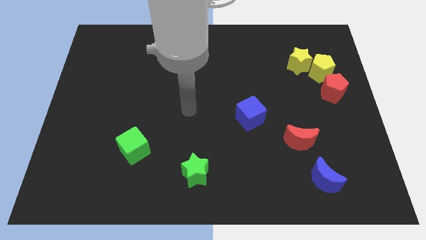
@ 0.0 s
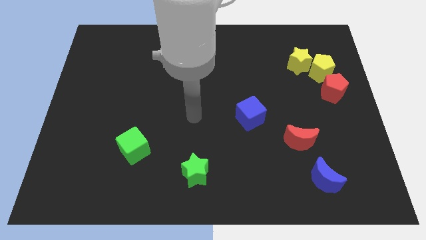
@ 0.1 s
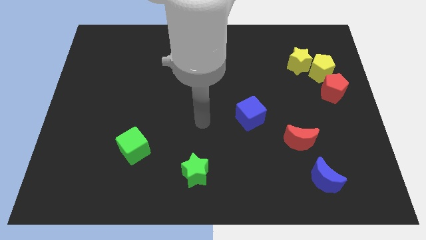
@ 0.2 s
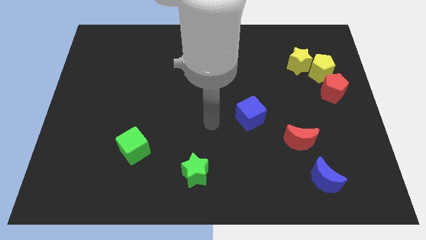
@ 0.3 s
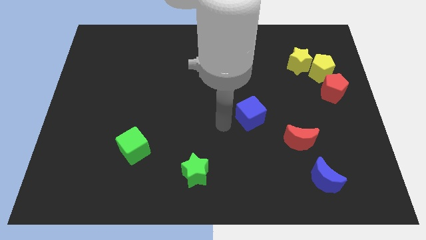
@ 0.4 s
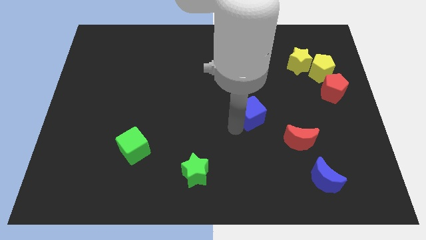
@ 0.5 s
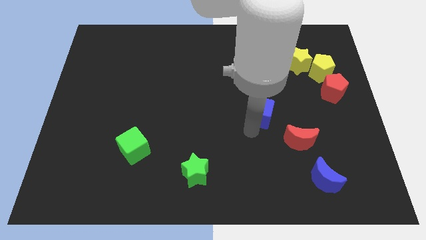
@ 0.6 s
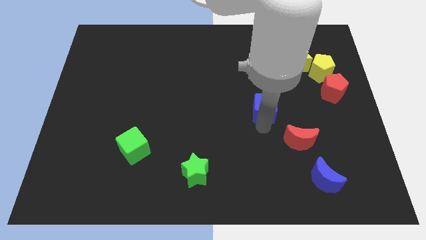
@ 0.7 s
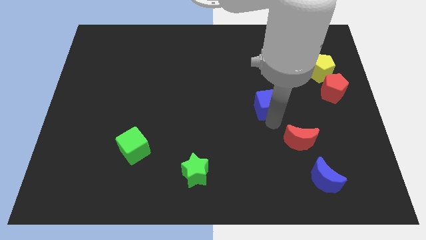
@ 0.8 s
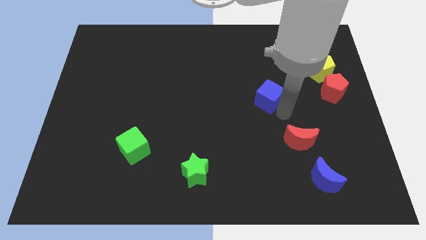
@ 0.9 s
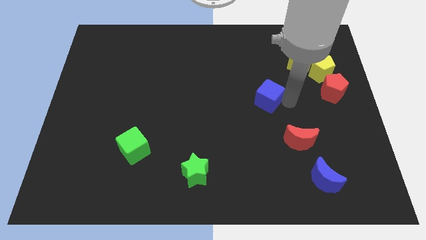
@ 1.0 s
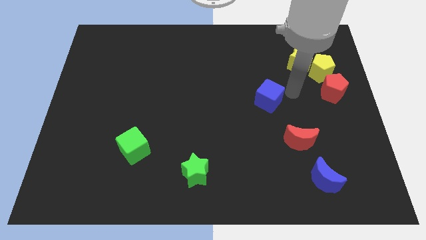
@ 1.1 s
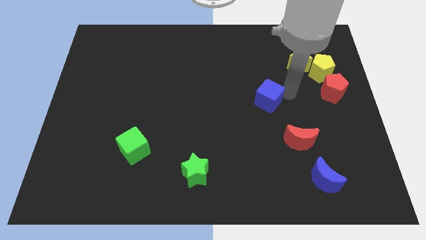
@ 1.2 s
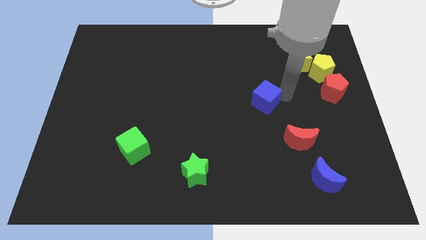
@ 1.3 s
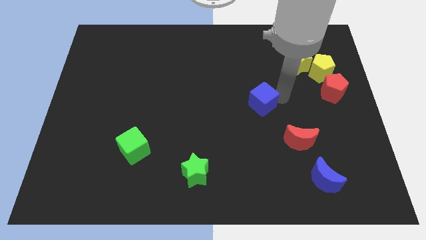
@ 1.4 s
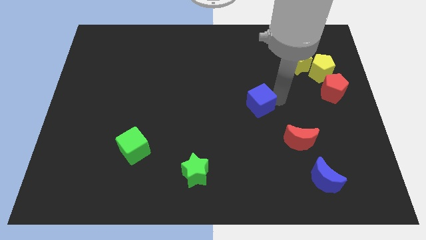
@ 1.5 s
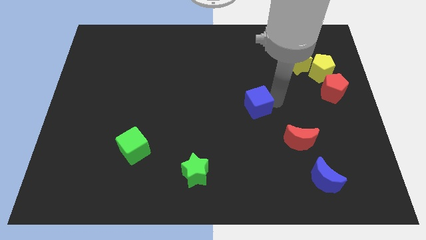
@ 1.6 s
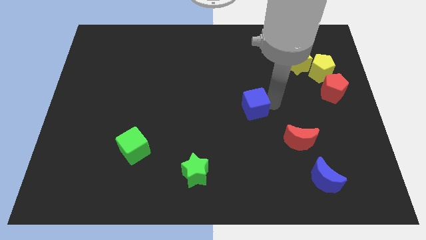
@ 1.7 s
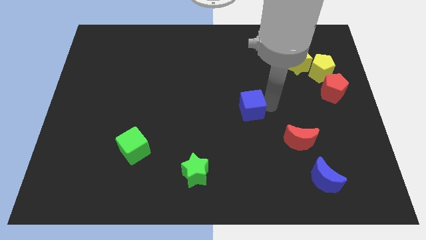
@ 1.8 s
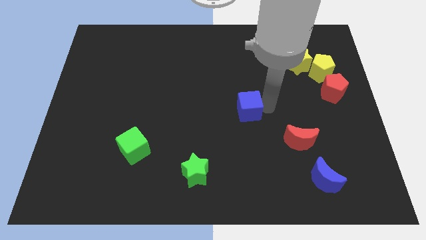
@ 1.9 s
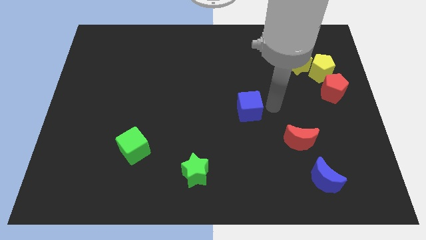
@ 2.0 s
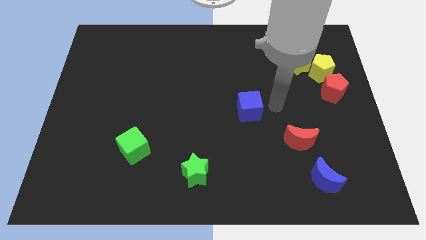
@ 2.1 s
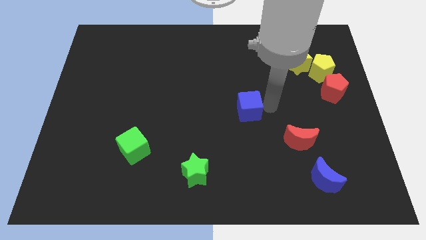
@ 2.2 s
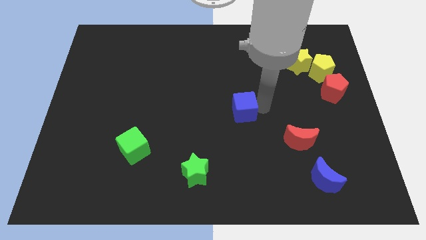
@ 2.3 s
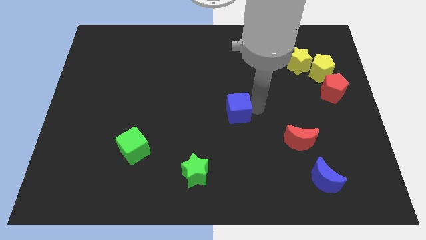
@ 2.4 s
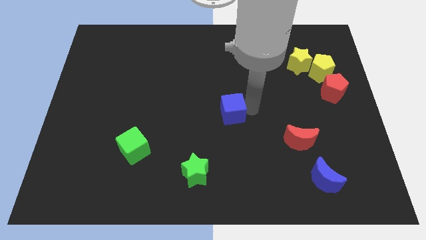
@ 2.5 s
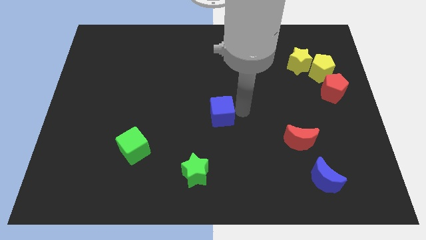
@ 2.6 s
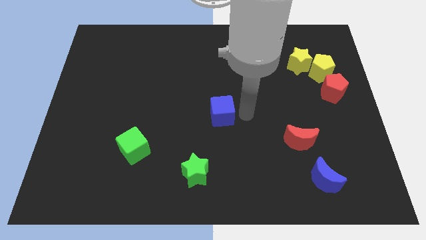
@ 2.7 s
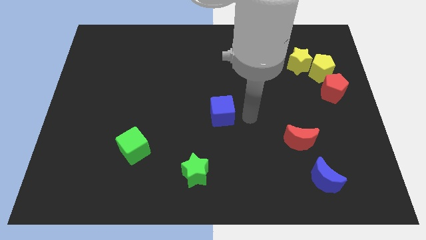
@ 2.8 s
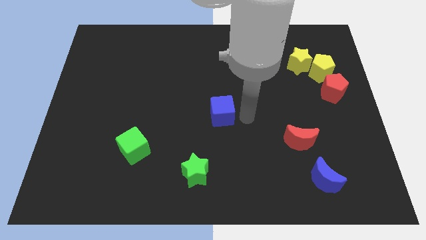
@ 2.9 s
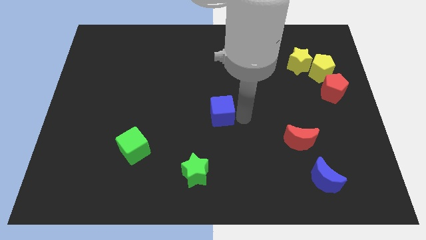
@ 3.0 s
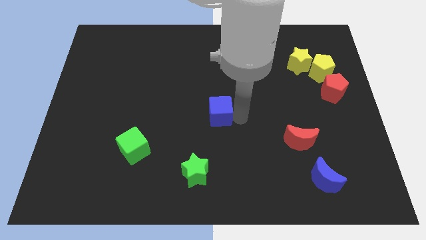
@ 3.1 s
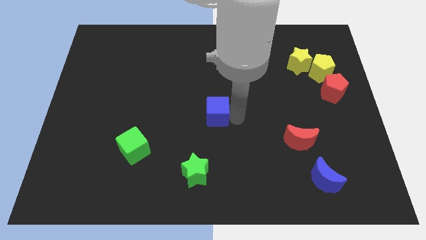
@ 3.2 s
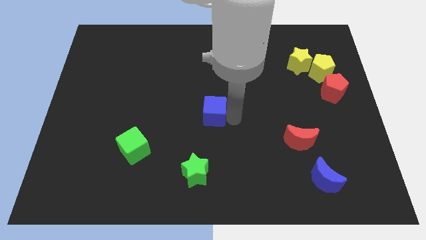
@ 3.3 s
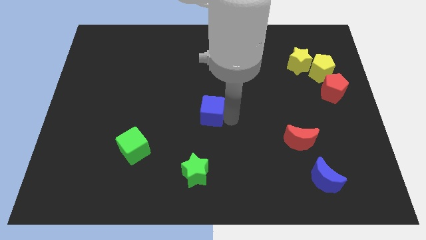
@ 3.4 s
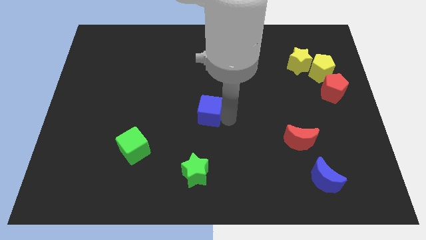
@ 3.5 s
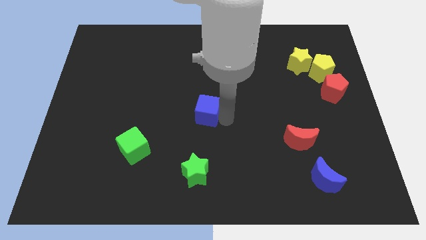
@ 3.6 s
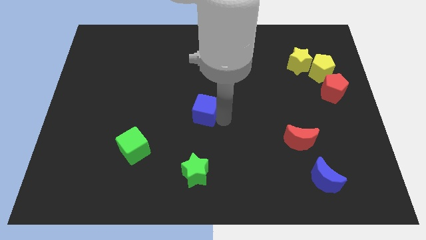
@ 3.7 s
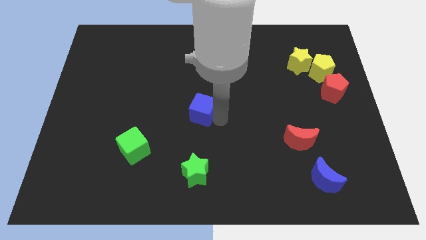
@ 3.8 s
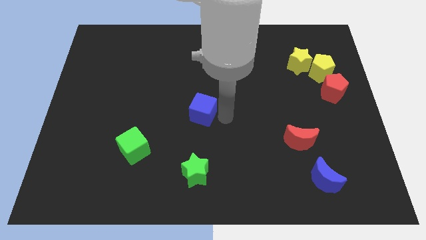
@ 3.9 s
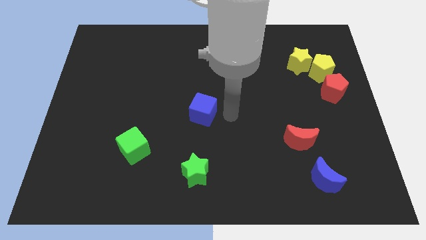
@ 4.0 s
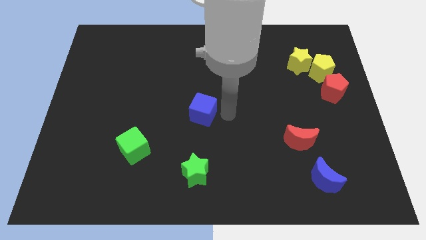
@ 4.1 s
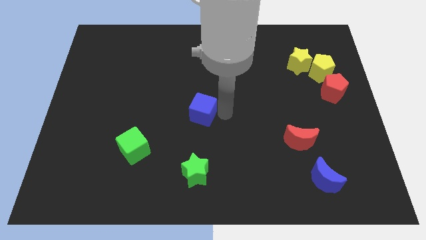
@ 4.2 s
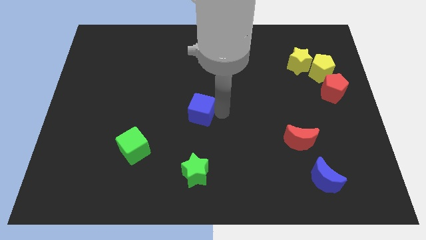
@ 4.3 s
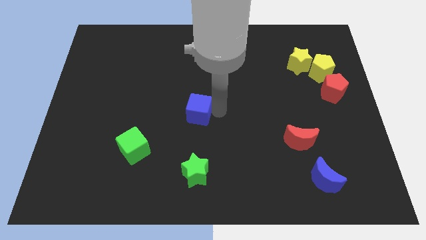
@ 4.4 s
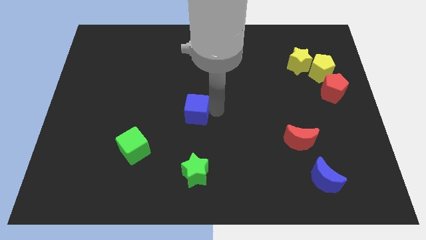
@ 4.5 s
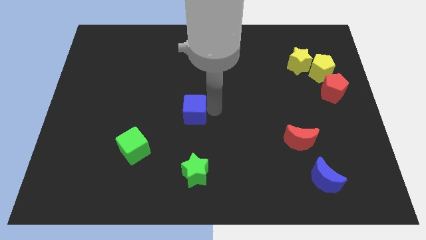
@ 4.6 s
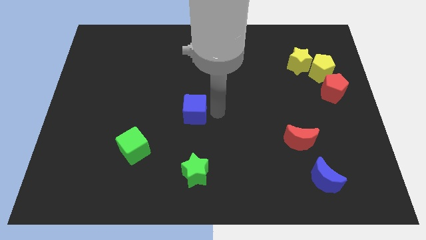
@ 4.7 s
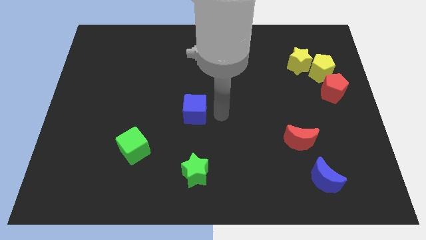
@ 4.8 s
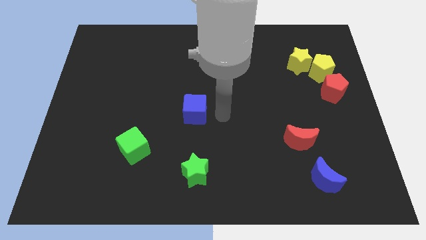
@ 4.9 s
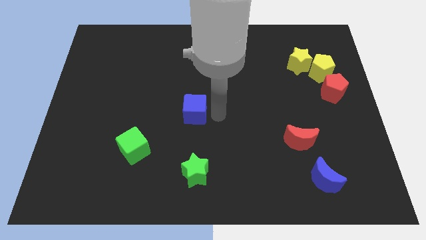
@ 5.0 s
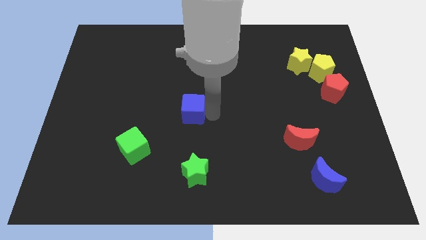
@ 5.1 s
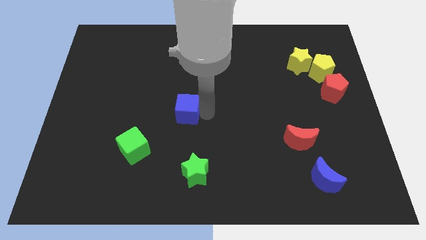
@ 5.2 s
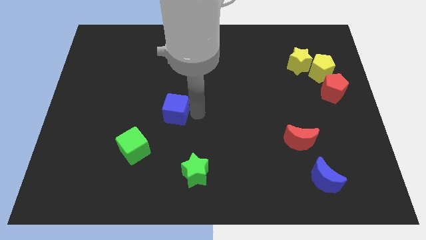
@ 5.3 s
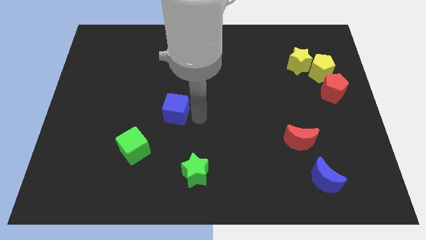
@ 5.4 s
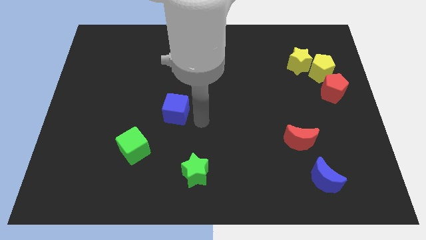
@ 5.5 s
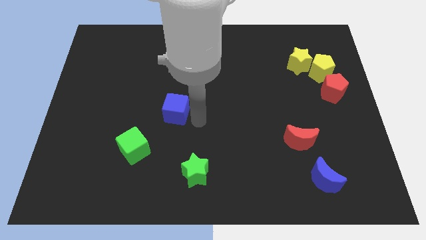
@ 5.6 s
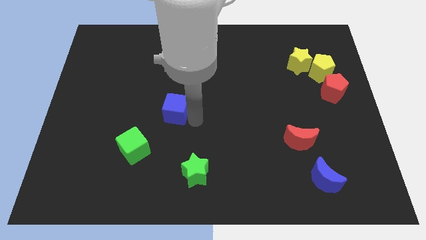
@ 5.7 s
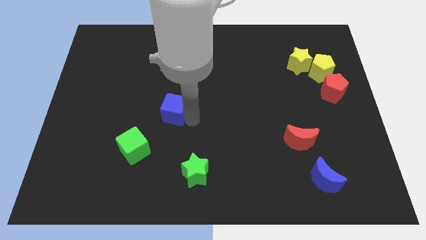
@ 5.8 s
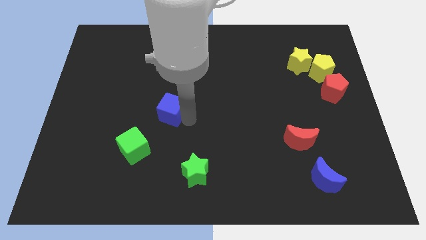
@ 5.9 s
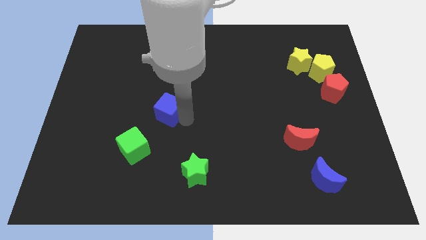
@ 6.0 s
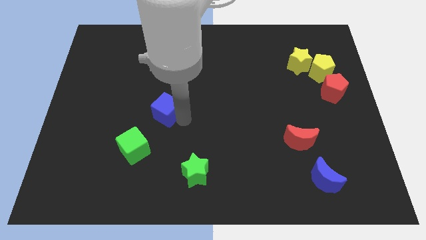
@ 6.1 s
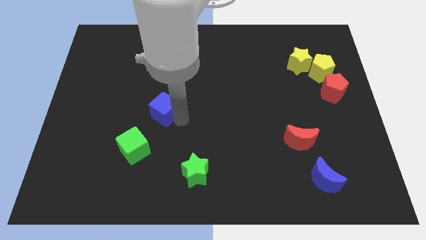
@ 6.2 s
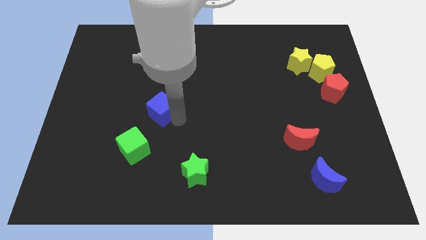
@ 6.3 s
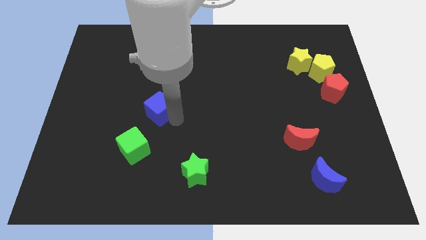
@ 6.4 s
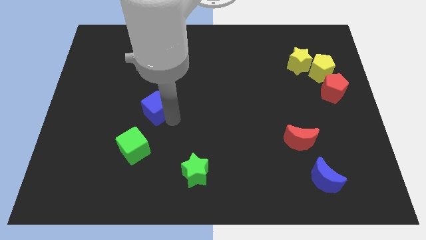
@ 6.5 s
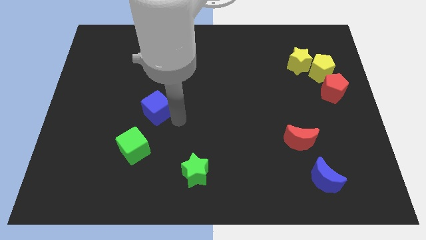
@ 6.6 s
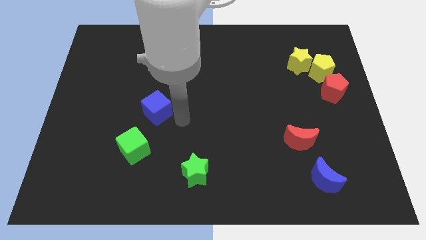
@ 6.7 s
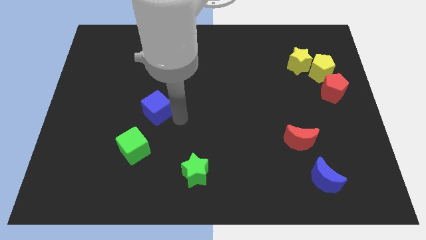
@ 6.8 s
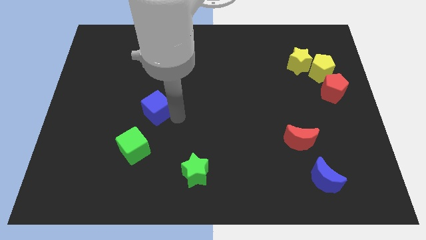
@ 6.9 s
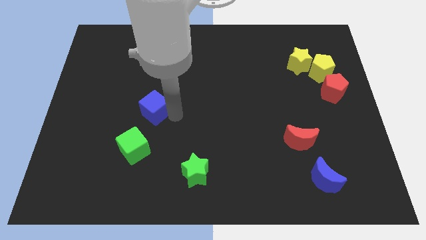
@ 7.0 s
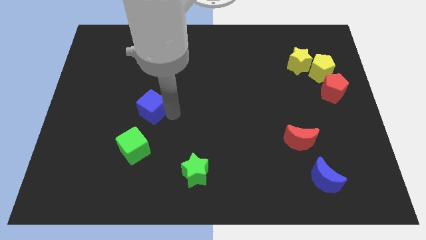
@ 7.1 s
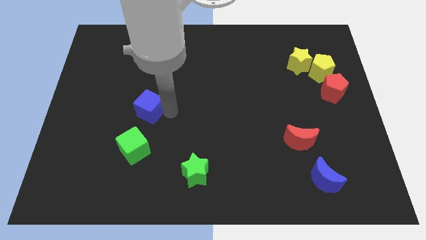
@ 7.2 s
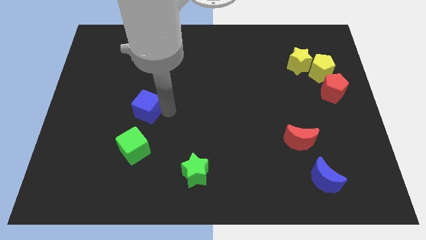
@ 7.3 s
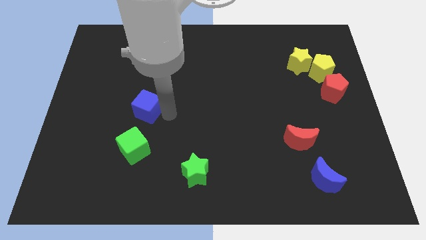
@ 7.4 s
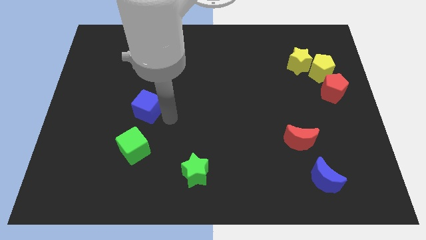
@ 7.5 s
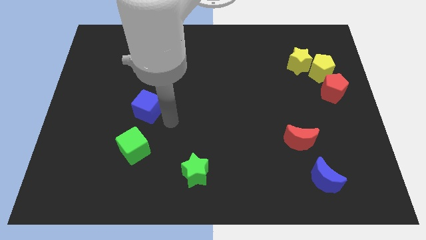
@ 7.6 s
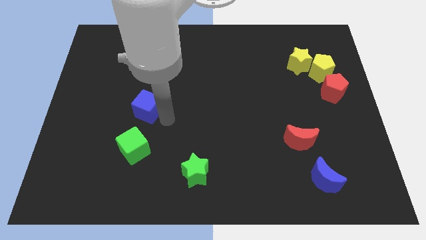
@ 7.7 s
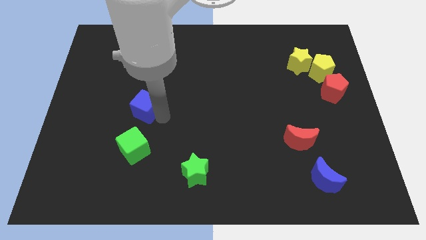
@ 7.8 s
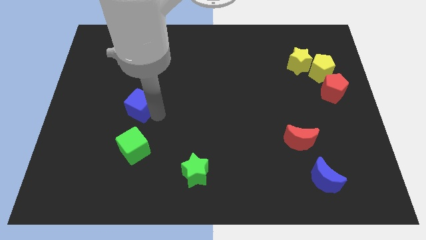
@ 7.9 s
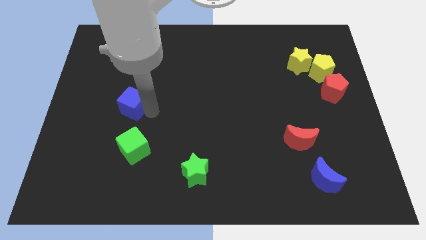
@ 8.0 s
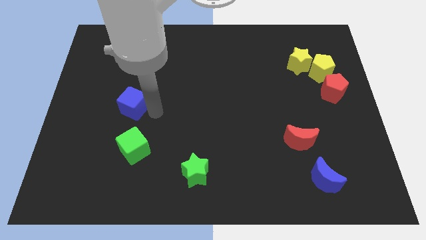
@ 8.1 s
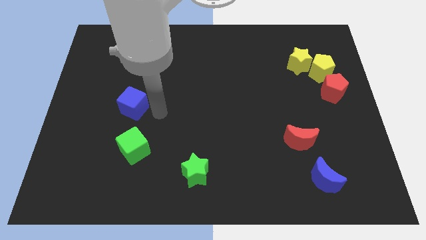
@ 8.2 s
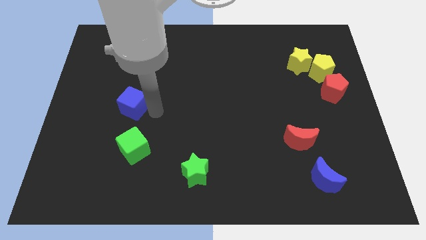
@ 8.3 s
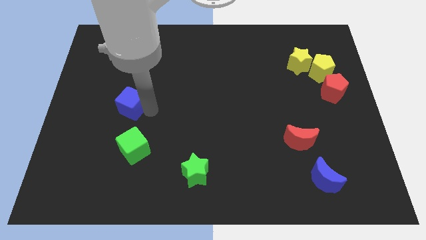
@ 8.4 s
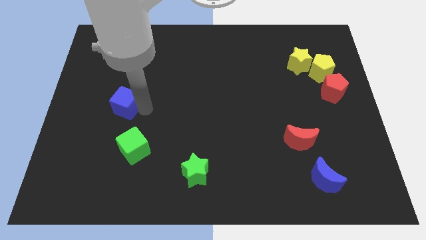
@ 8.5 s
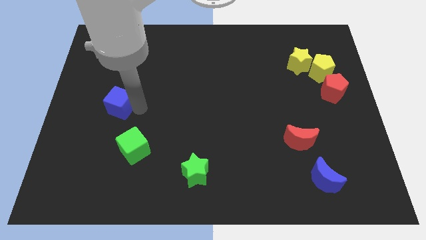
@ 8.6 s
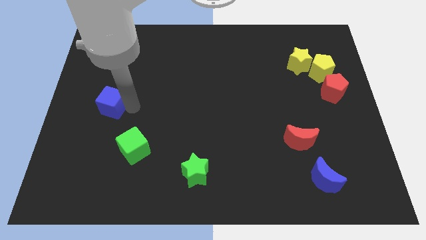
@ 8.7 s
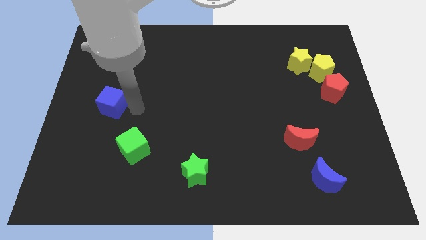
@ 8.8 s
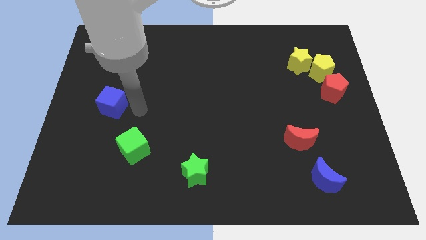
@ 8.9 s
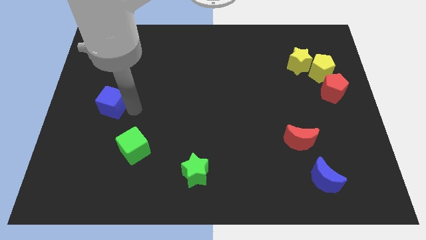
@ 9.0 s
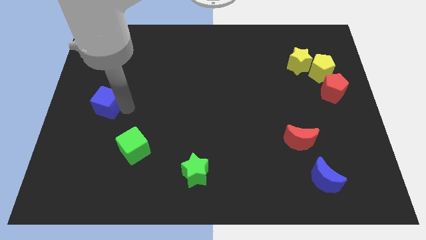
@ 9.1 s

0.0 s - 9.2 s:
move the blue cube to the center left
